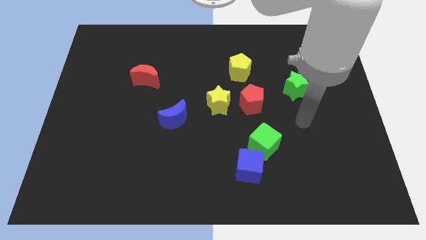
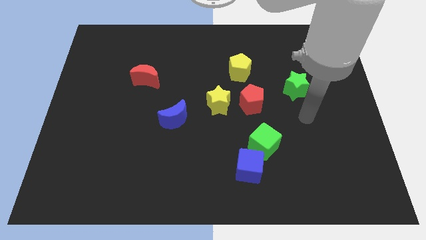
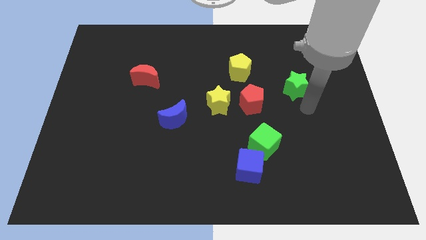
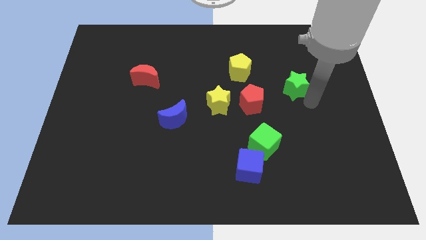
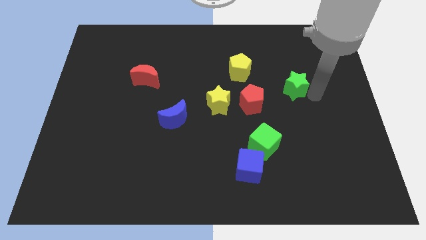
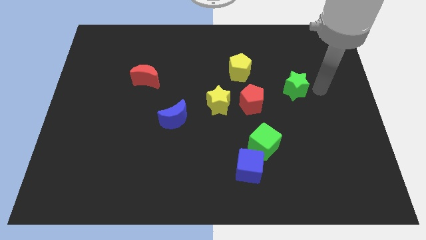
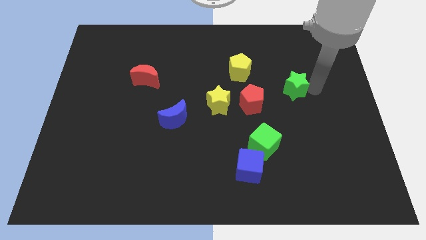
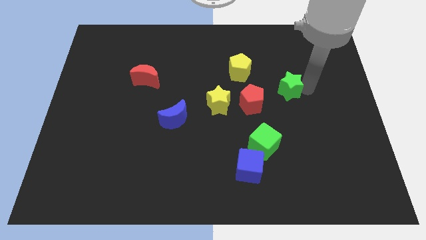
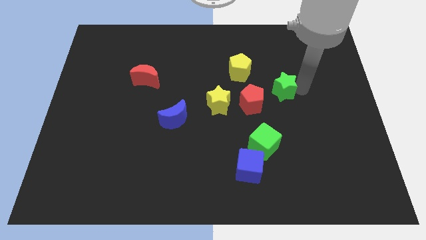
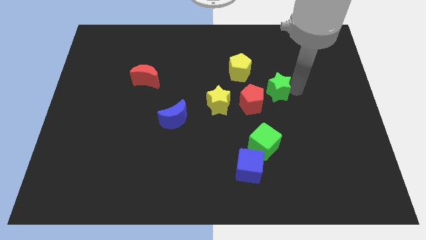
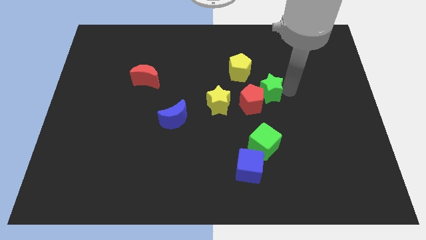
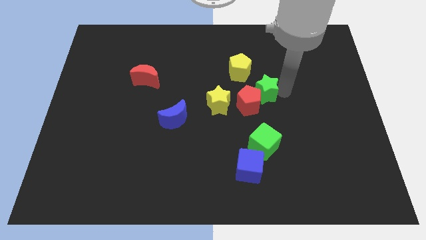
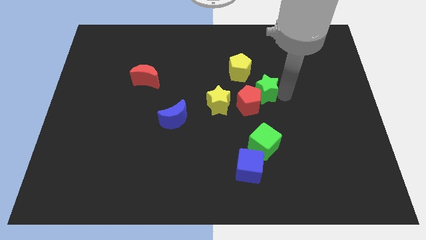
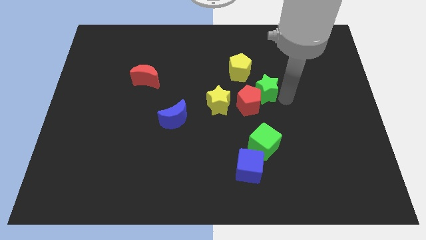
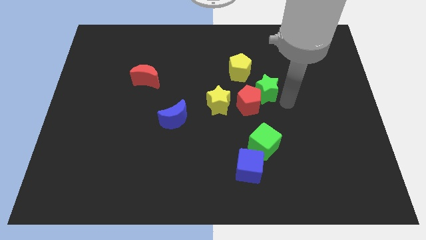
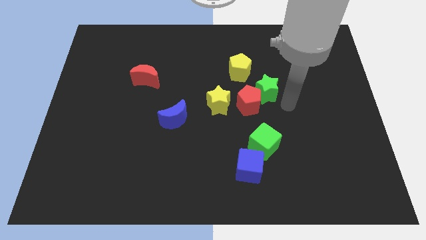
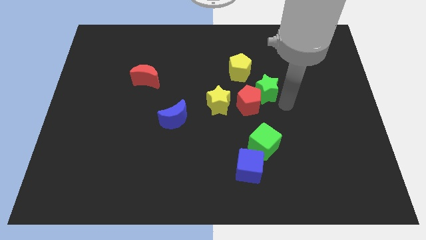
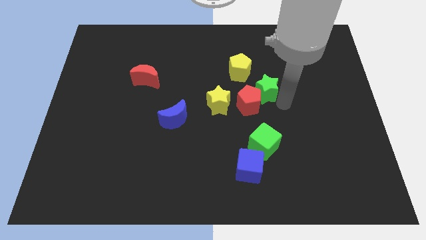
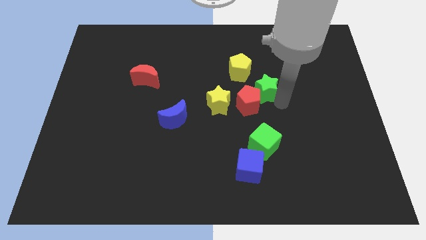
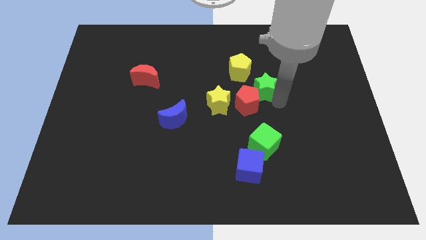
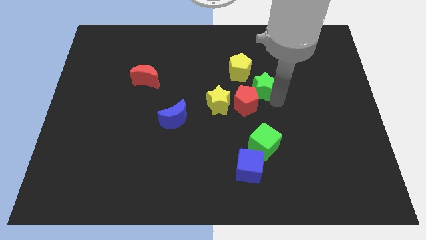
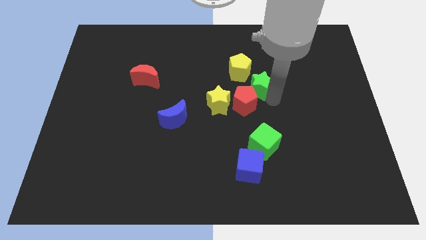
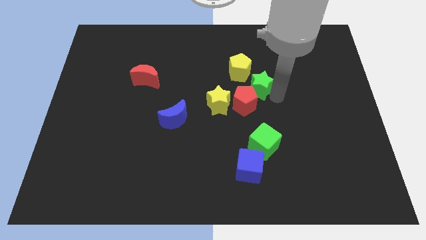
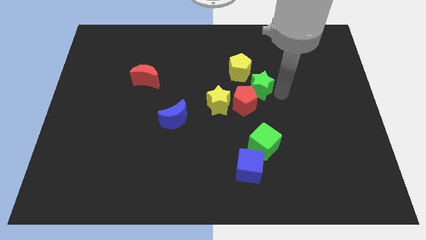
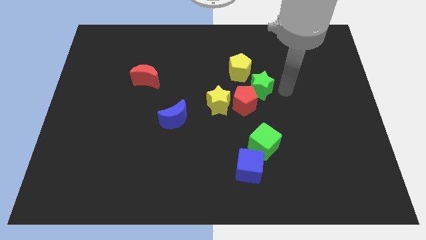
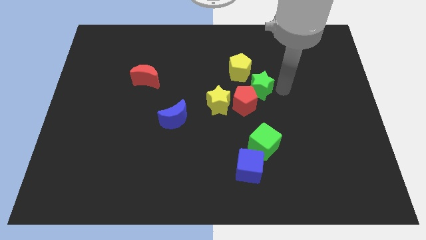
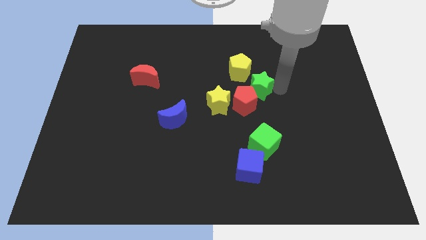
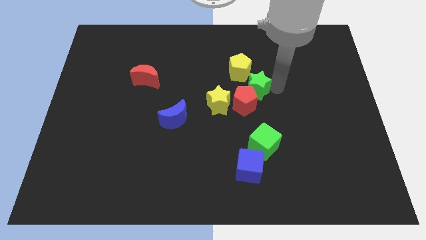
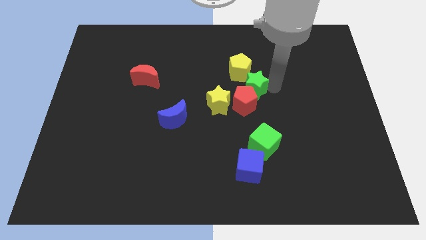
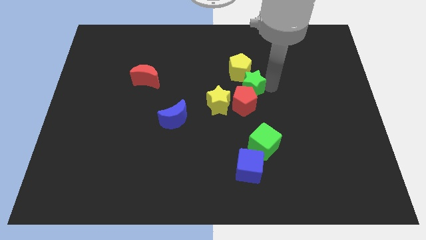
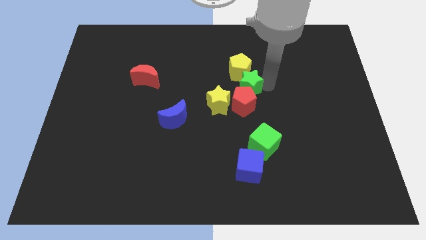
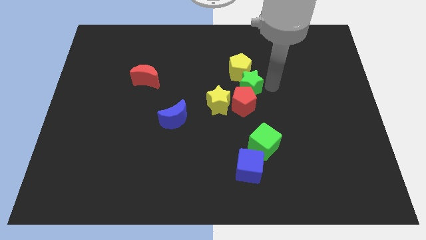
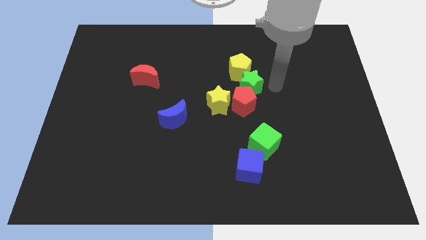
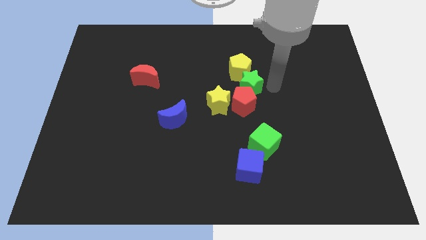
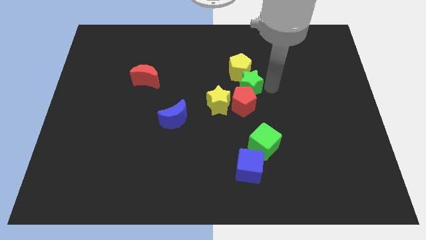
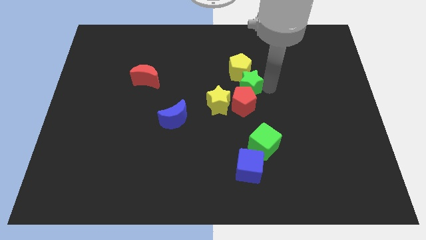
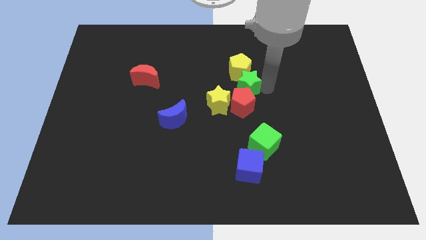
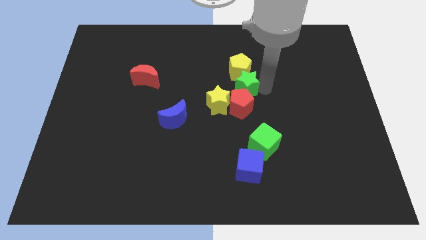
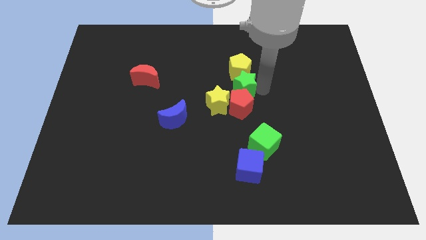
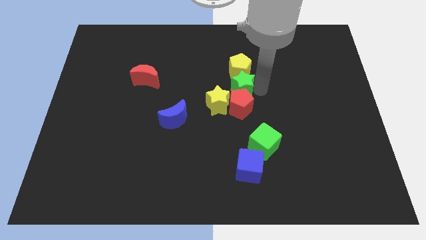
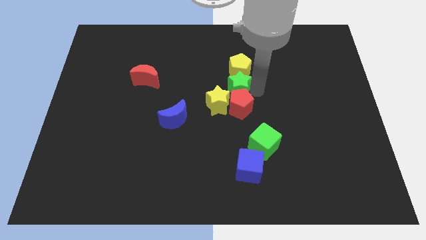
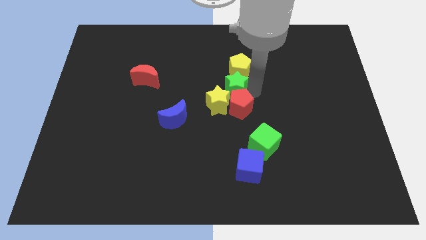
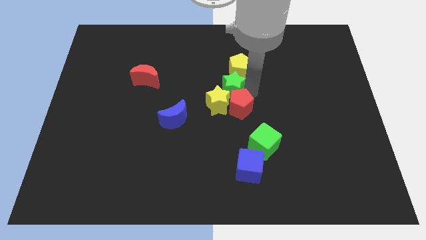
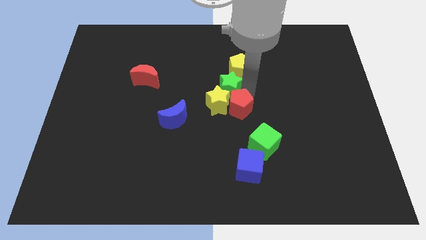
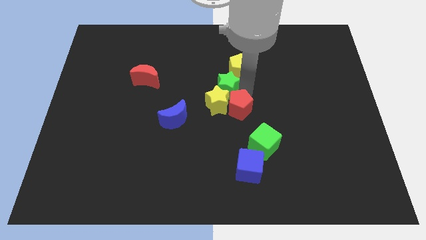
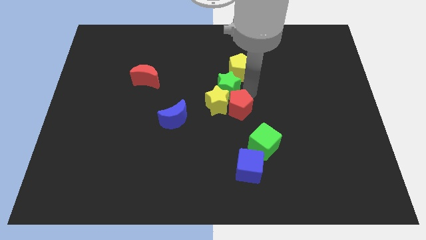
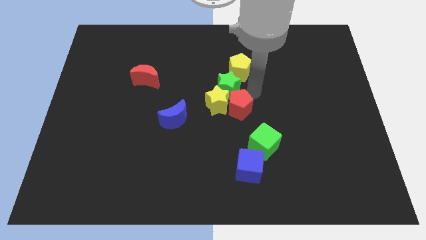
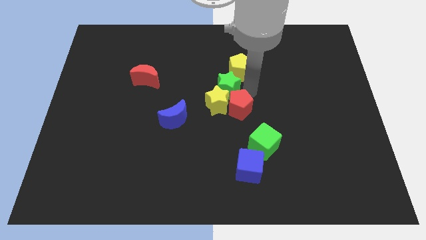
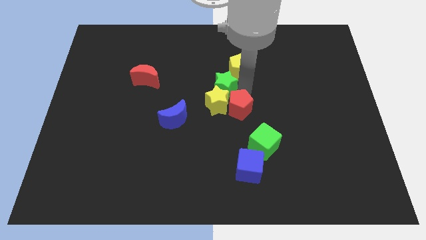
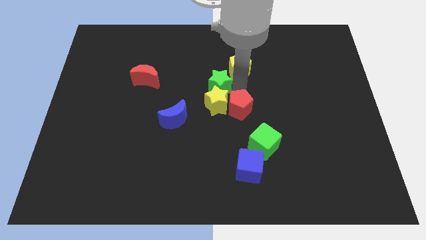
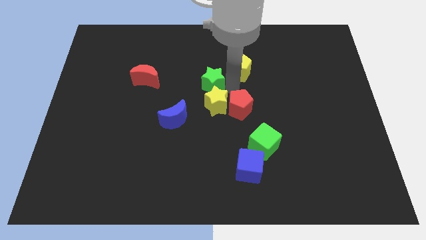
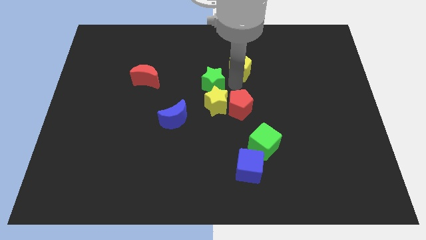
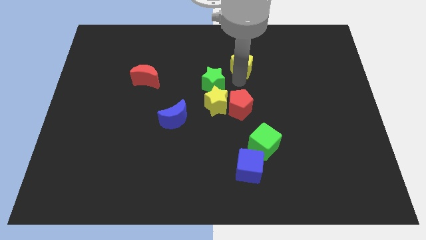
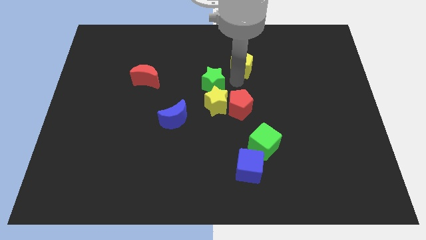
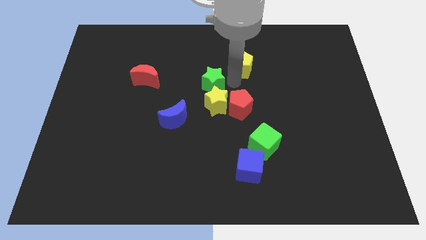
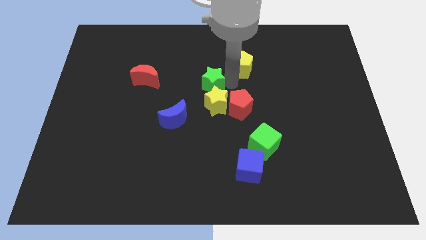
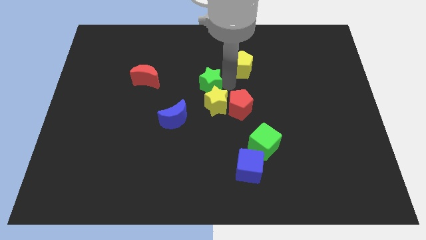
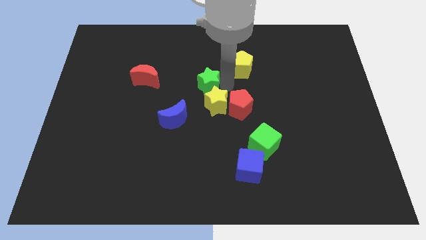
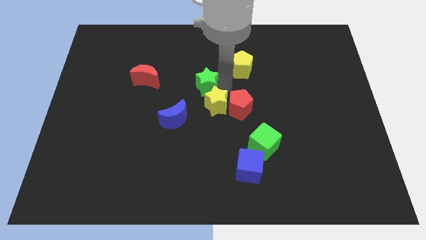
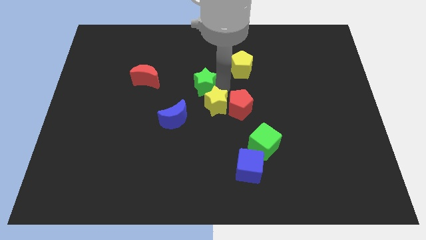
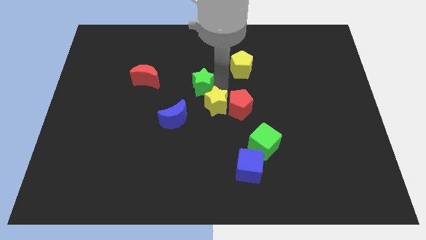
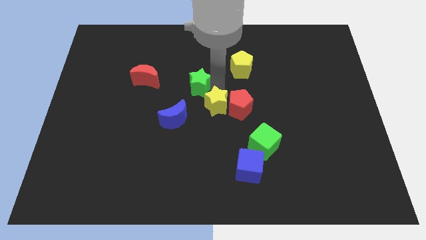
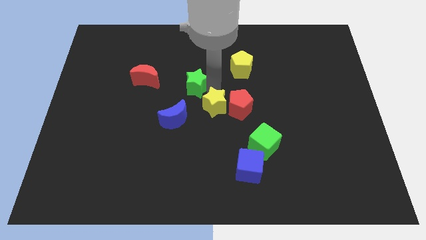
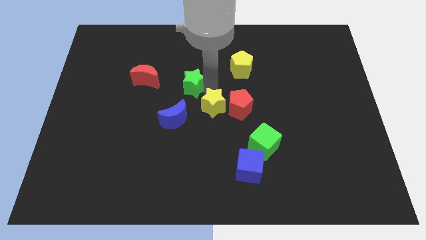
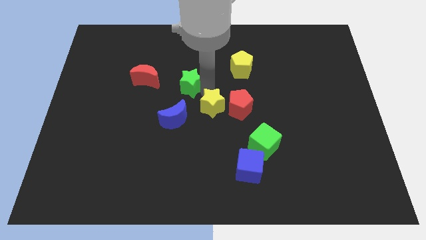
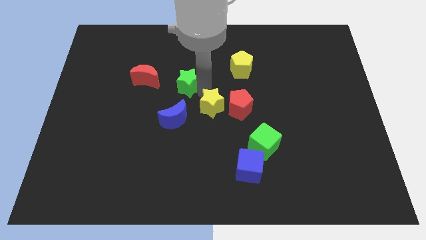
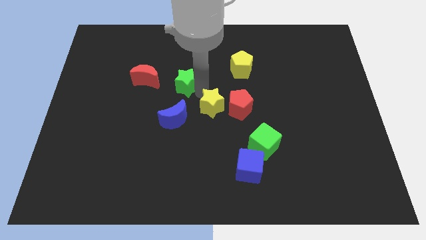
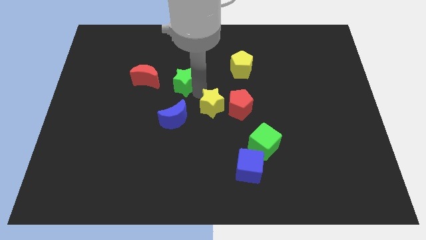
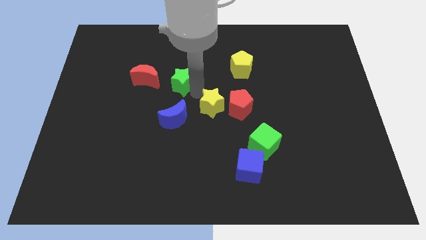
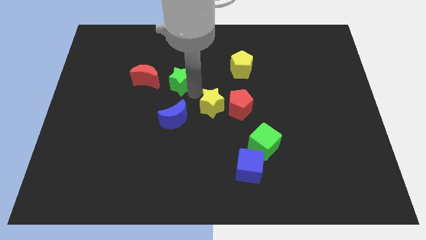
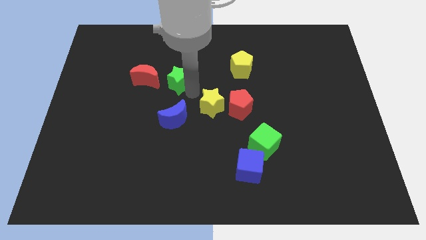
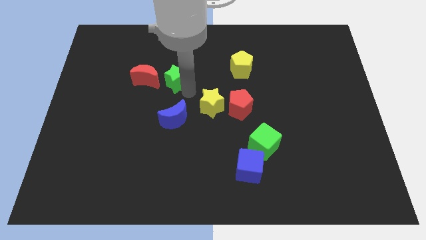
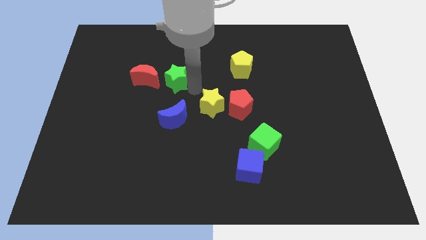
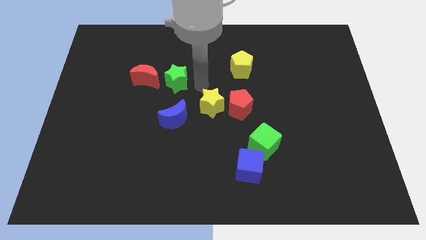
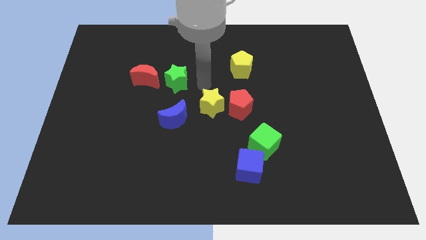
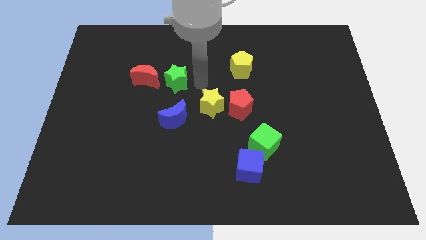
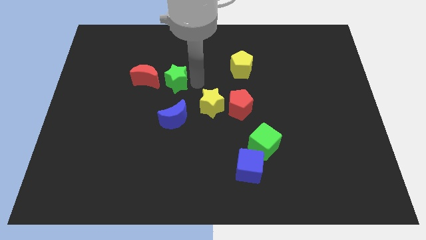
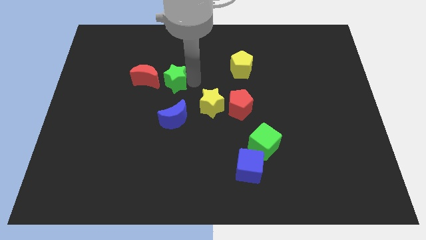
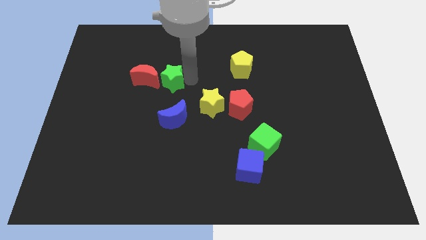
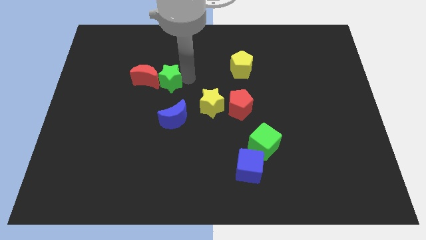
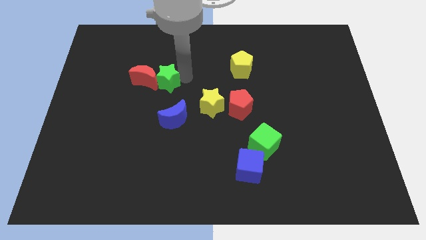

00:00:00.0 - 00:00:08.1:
move the green star towards the red moon

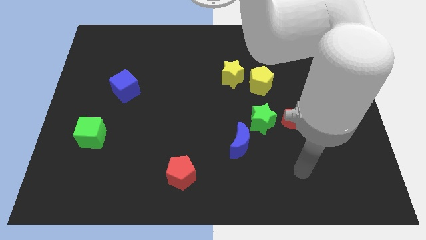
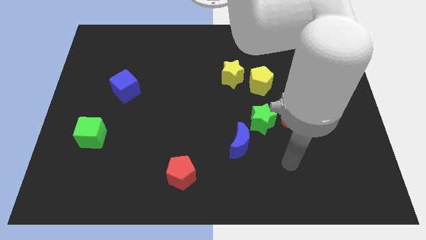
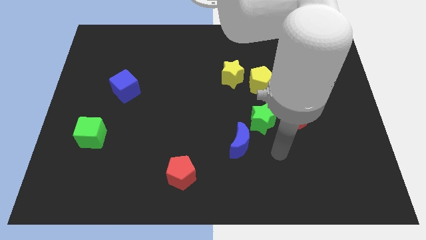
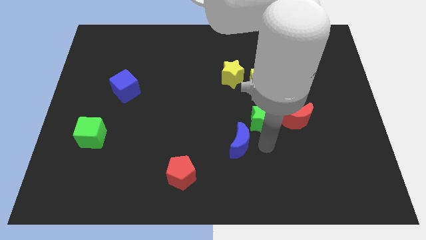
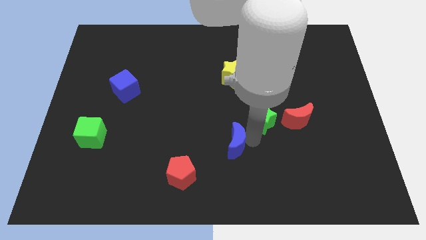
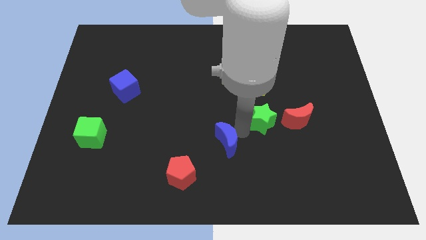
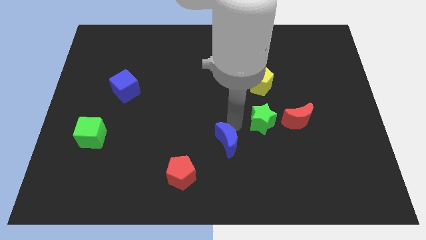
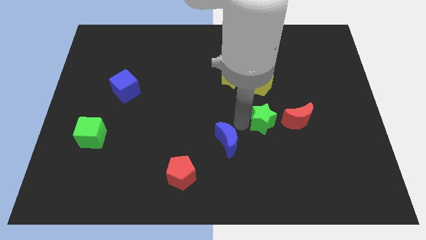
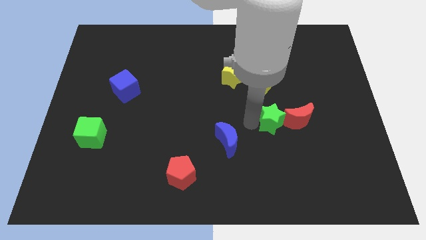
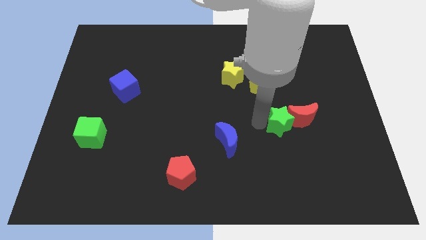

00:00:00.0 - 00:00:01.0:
slide the green star towards the red moon
